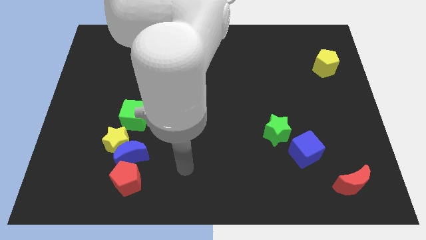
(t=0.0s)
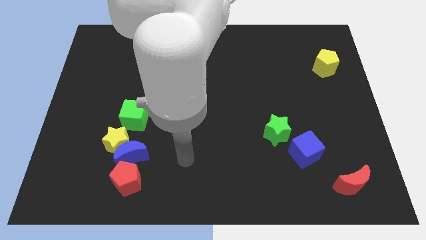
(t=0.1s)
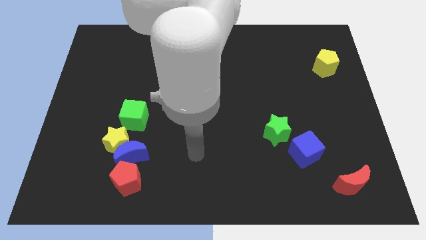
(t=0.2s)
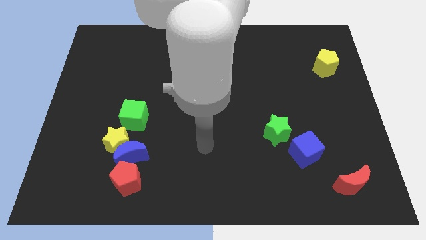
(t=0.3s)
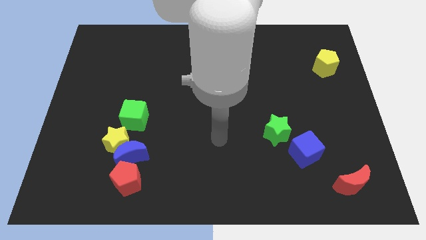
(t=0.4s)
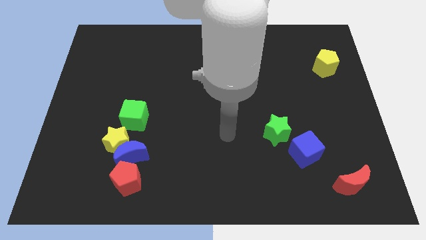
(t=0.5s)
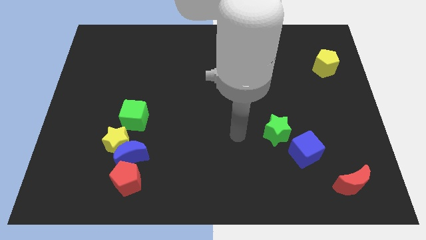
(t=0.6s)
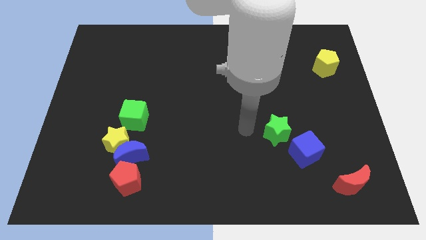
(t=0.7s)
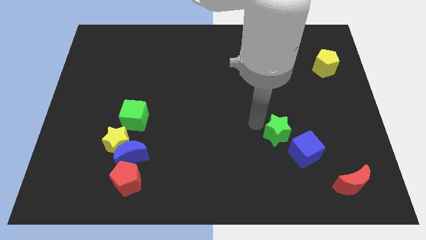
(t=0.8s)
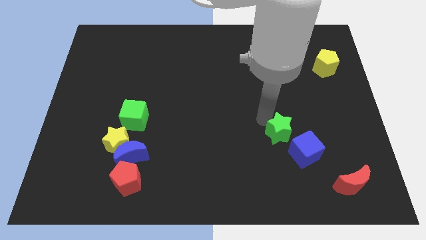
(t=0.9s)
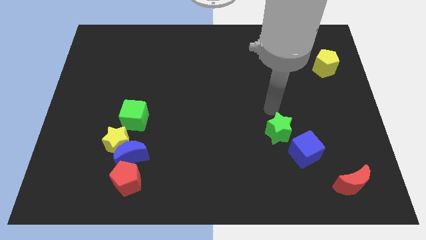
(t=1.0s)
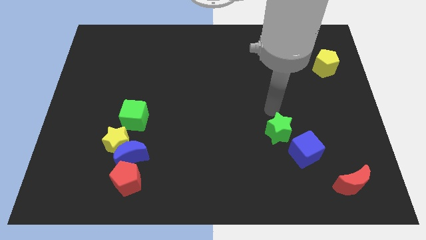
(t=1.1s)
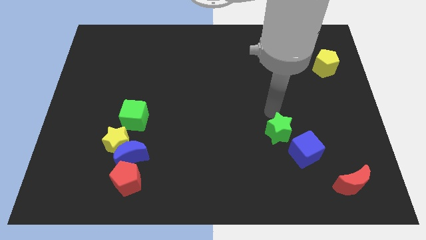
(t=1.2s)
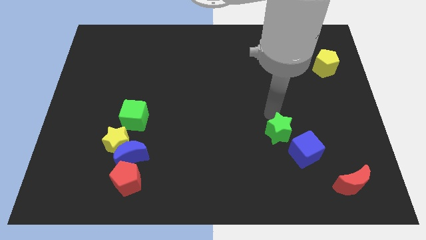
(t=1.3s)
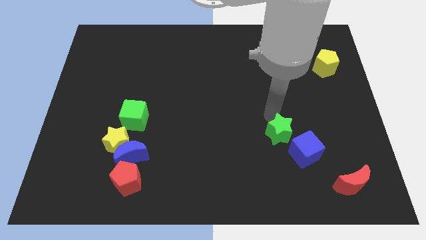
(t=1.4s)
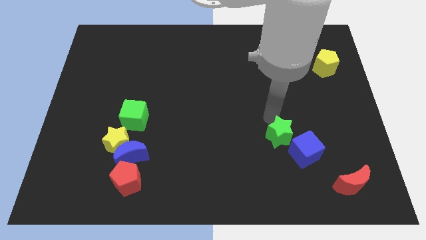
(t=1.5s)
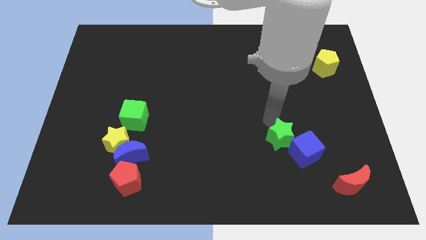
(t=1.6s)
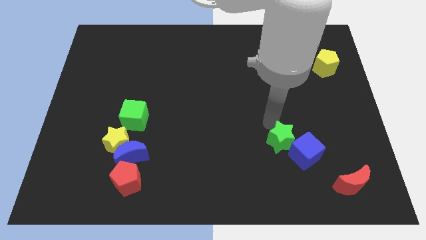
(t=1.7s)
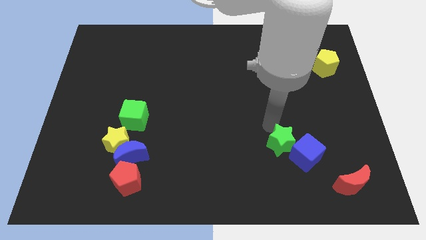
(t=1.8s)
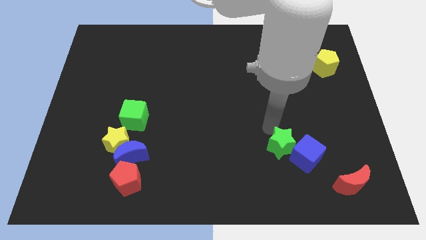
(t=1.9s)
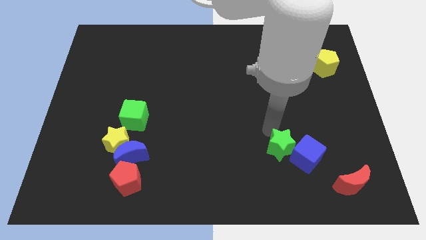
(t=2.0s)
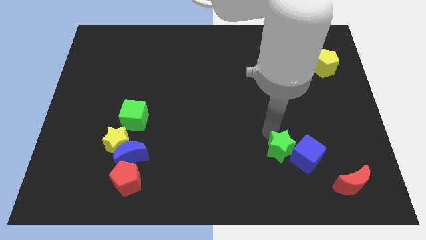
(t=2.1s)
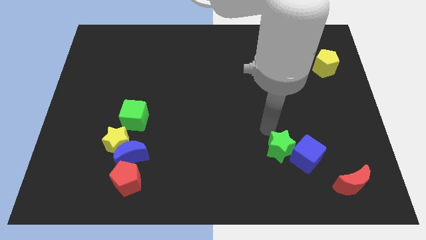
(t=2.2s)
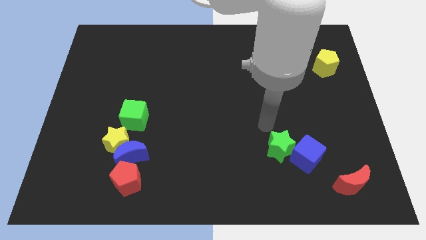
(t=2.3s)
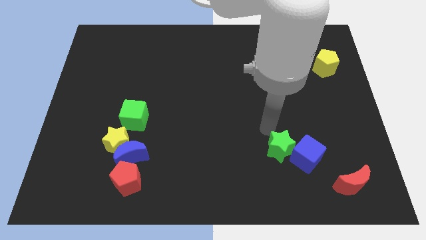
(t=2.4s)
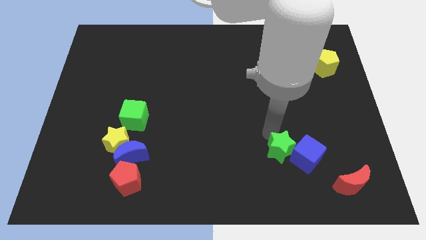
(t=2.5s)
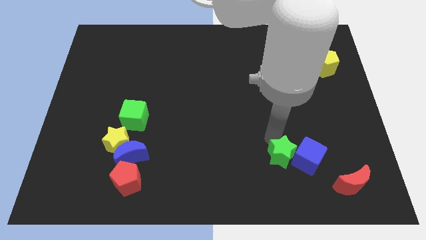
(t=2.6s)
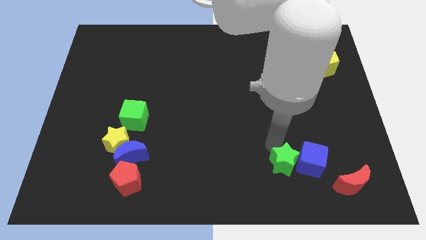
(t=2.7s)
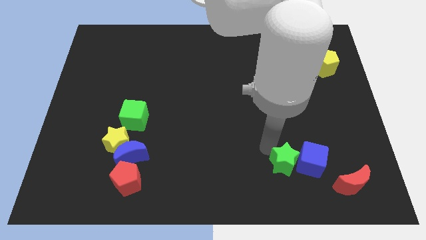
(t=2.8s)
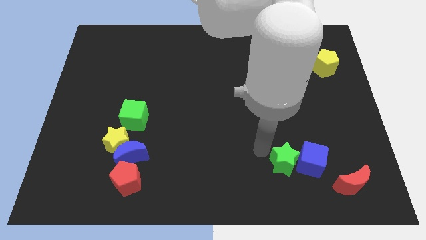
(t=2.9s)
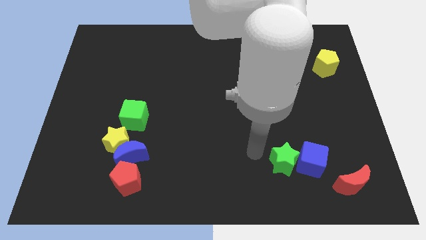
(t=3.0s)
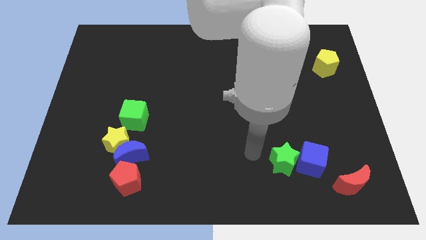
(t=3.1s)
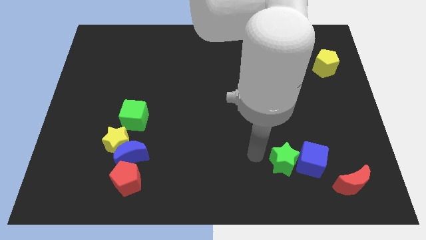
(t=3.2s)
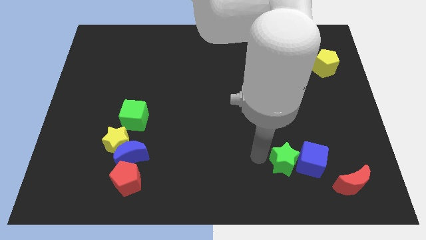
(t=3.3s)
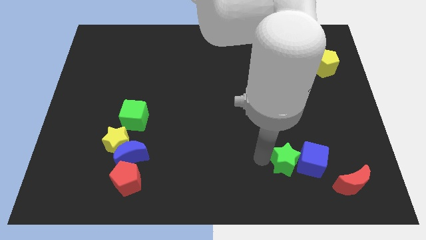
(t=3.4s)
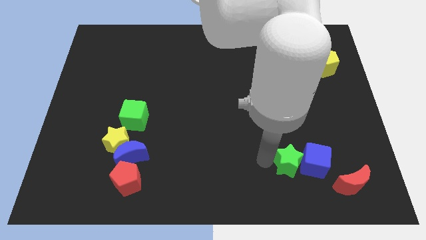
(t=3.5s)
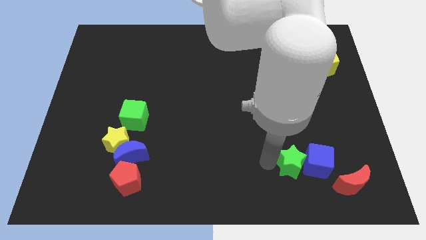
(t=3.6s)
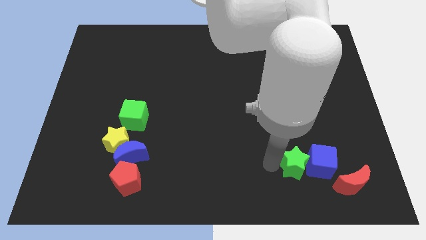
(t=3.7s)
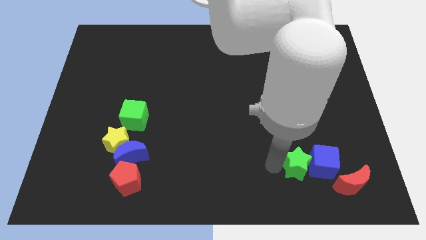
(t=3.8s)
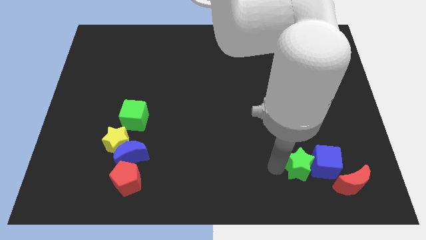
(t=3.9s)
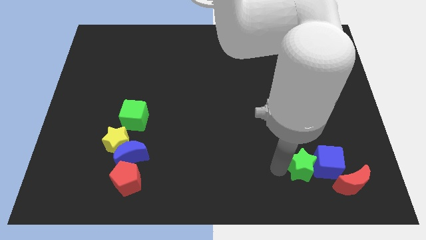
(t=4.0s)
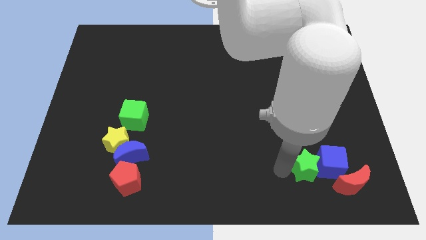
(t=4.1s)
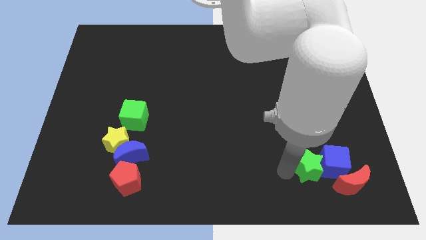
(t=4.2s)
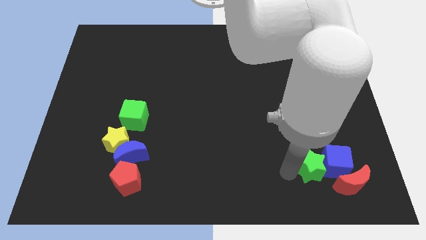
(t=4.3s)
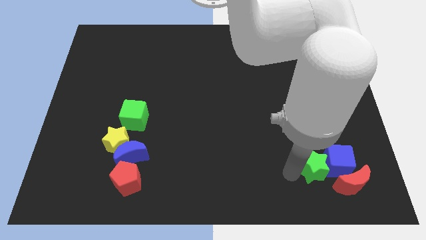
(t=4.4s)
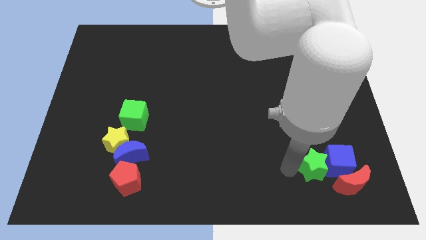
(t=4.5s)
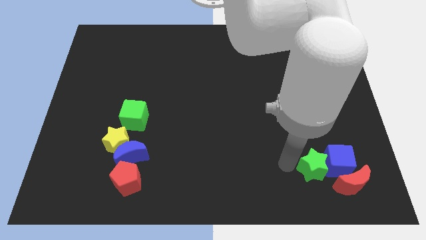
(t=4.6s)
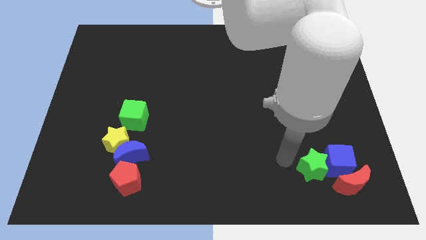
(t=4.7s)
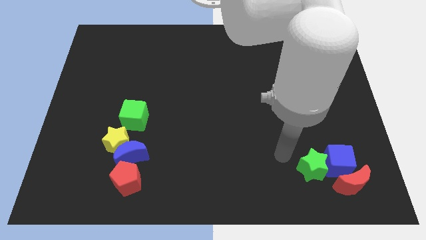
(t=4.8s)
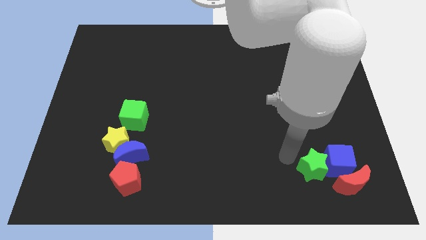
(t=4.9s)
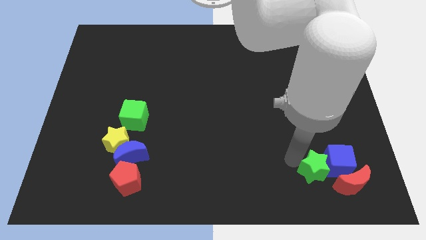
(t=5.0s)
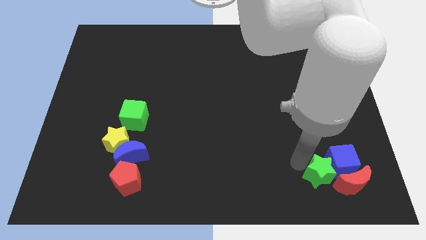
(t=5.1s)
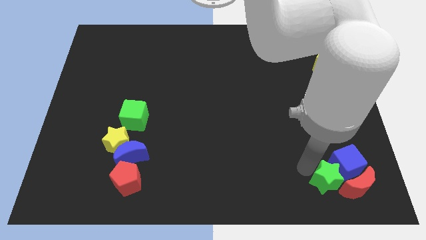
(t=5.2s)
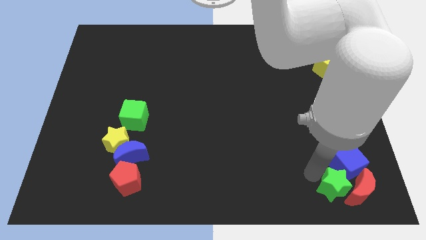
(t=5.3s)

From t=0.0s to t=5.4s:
slide the green star next to the red moon

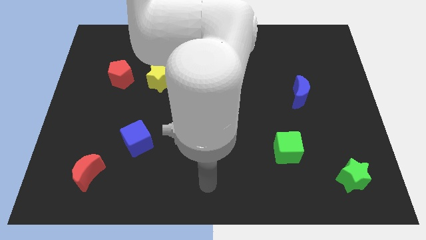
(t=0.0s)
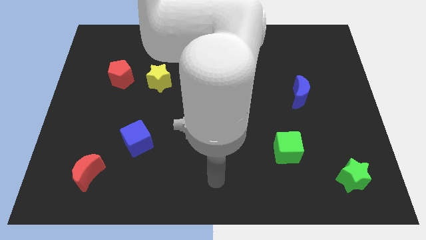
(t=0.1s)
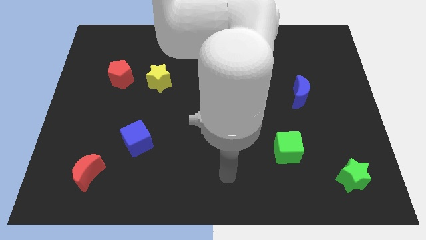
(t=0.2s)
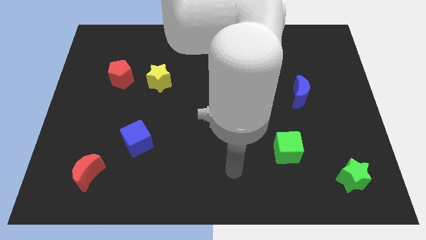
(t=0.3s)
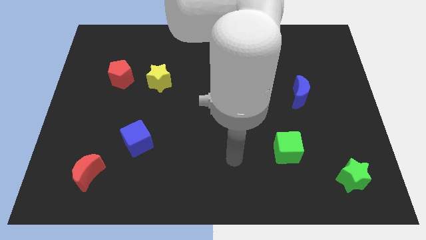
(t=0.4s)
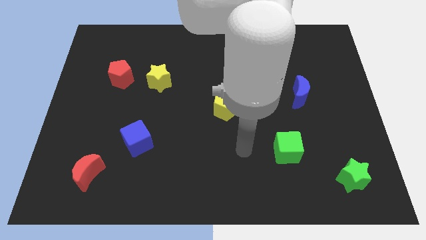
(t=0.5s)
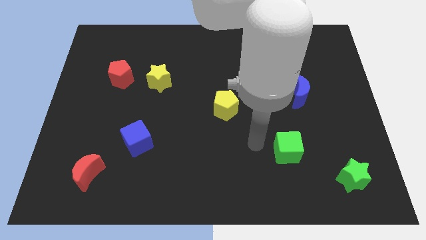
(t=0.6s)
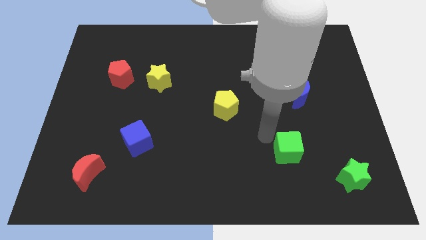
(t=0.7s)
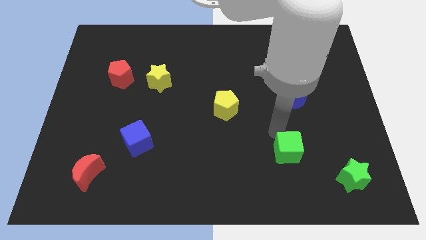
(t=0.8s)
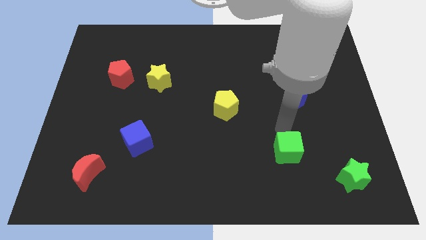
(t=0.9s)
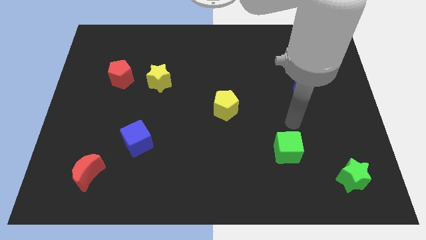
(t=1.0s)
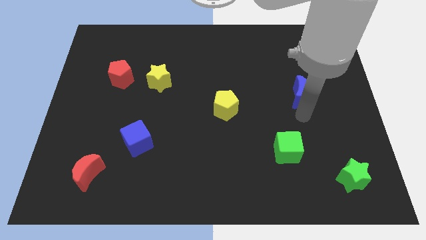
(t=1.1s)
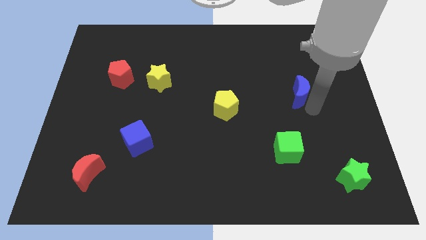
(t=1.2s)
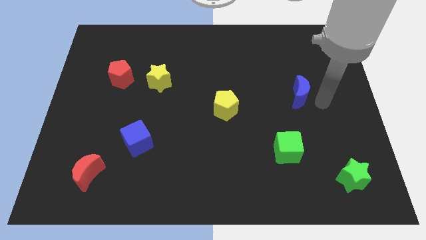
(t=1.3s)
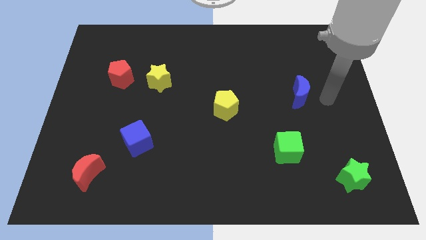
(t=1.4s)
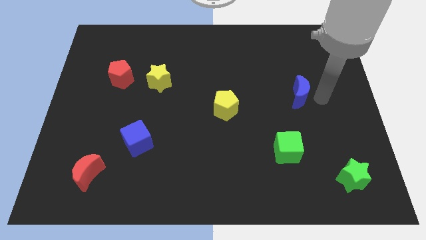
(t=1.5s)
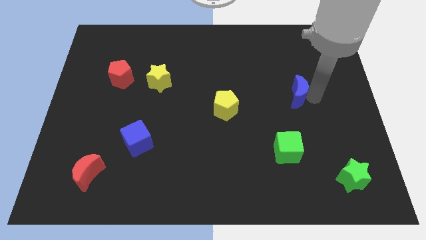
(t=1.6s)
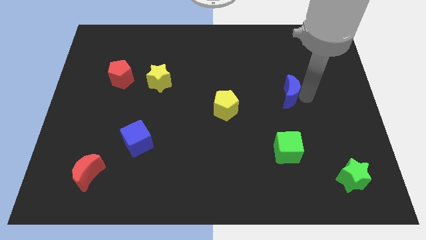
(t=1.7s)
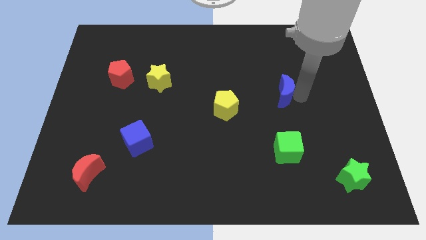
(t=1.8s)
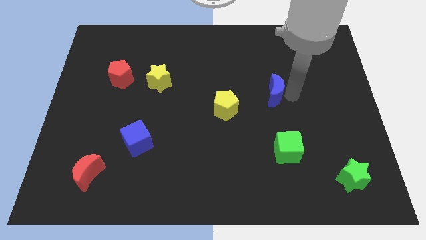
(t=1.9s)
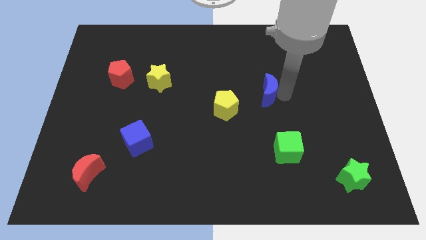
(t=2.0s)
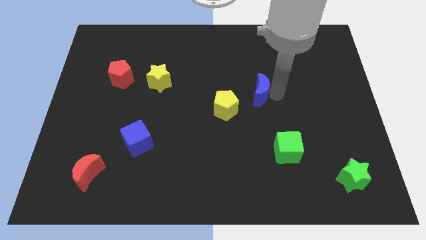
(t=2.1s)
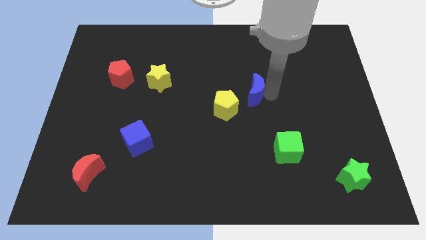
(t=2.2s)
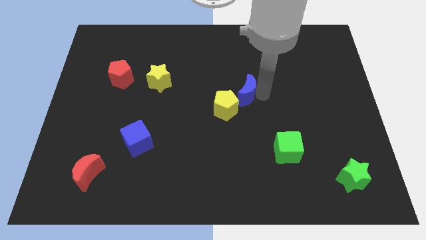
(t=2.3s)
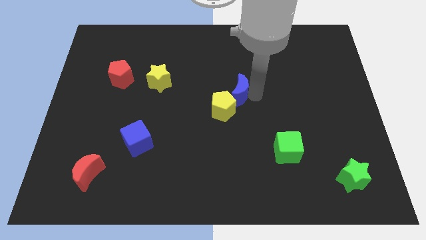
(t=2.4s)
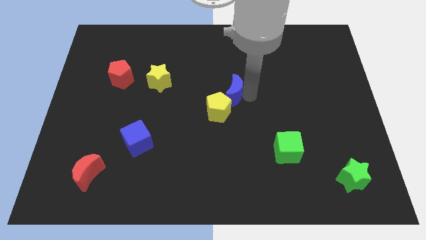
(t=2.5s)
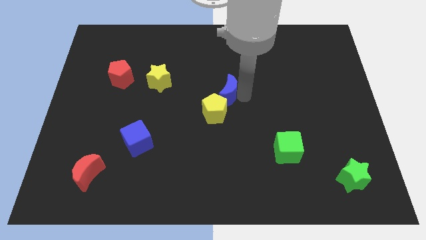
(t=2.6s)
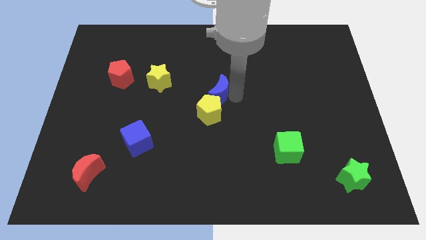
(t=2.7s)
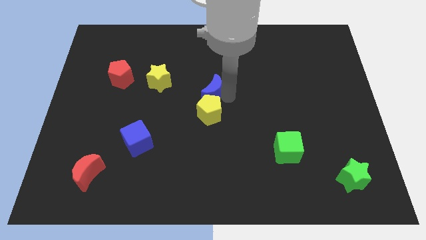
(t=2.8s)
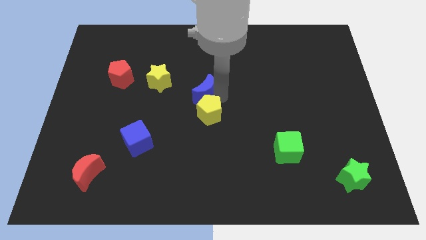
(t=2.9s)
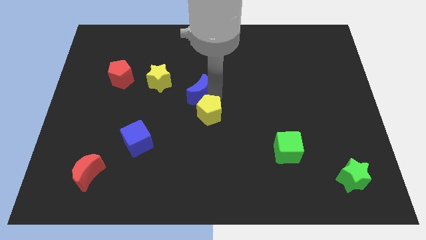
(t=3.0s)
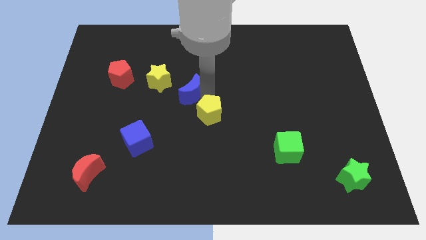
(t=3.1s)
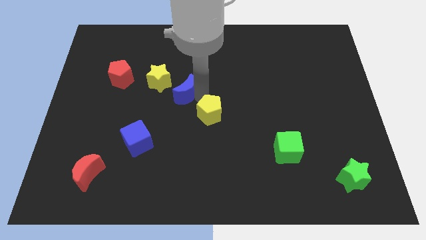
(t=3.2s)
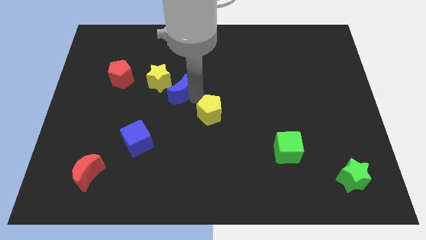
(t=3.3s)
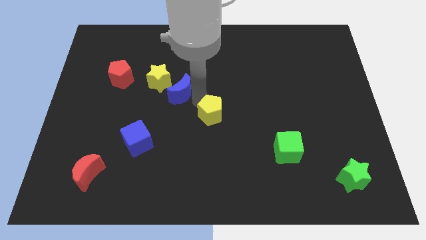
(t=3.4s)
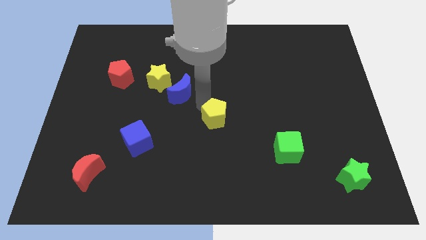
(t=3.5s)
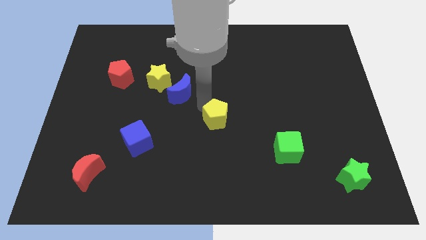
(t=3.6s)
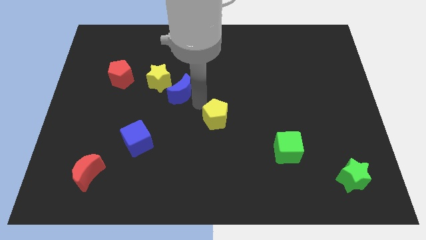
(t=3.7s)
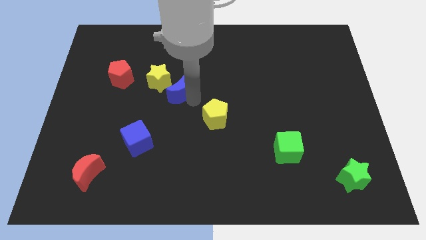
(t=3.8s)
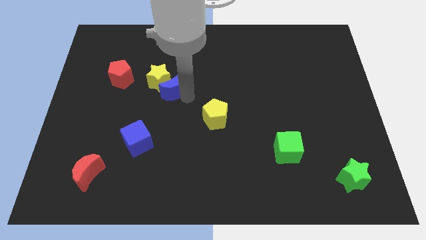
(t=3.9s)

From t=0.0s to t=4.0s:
slide the blue moon towards the yellow star
